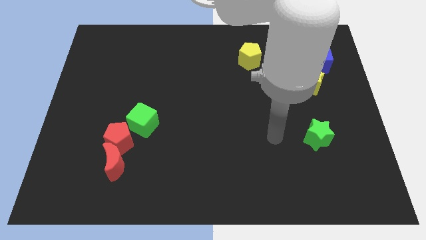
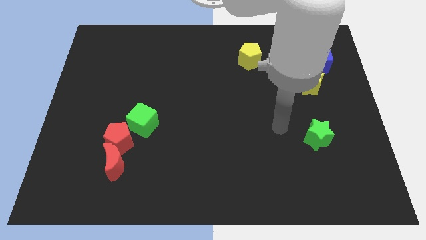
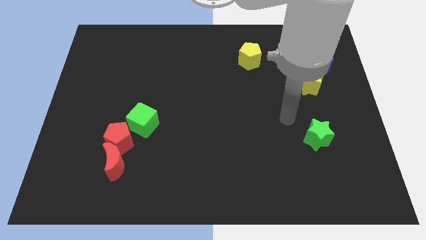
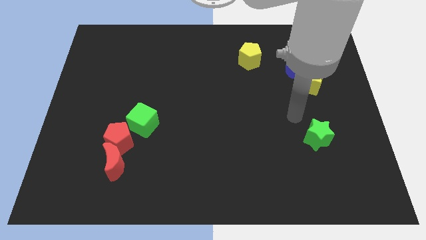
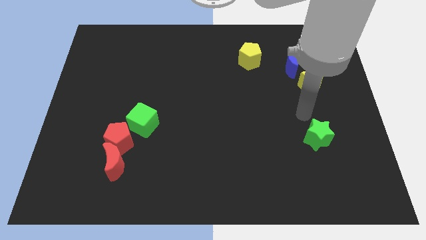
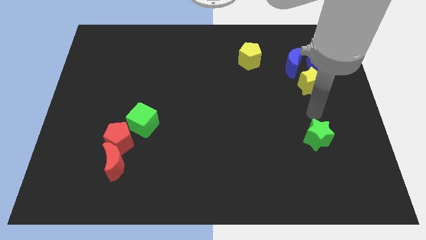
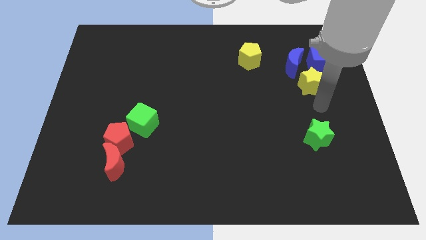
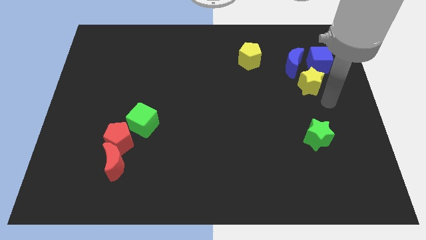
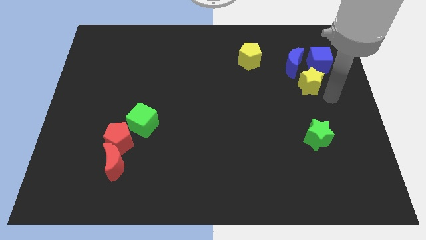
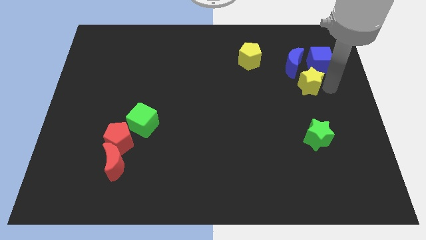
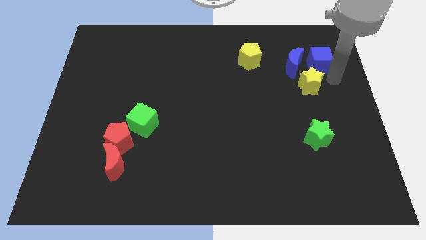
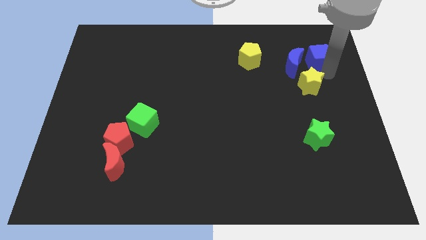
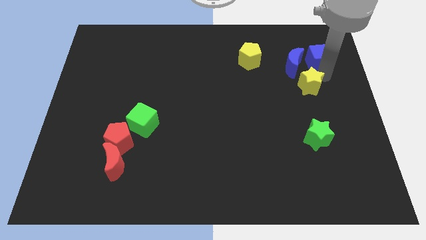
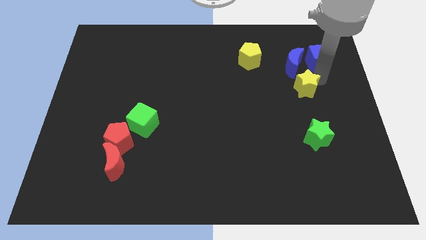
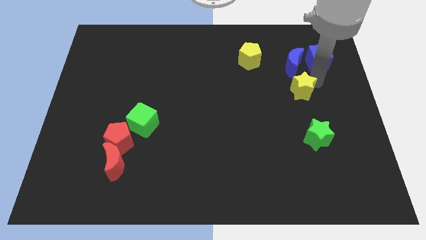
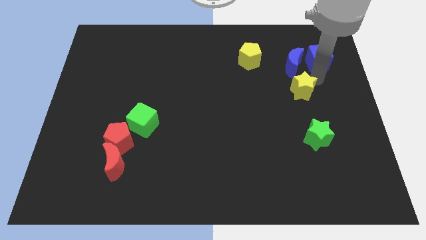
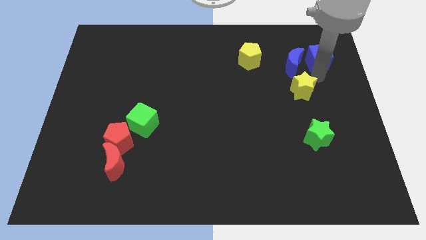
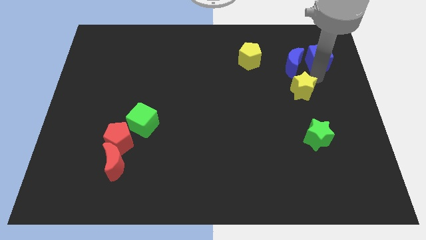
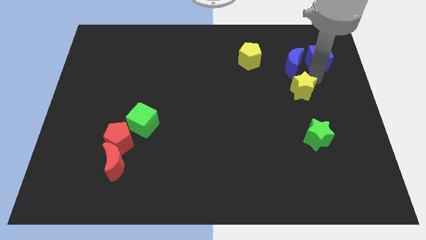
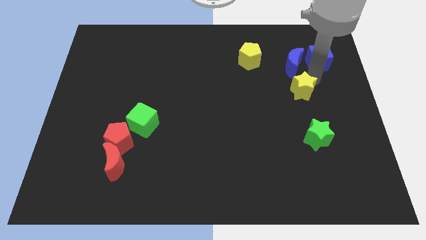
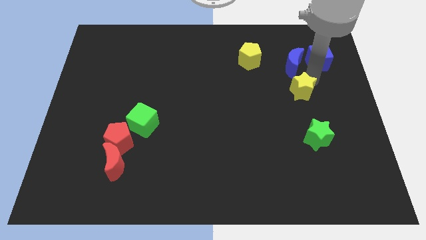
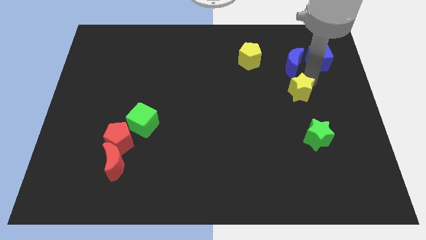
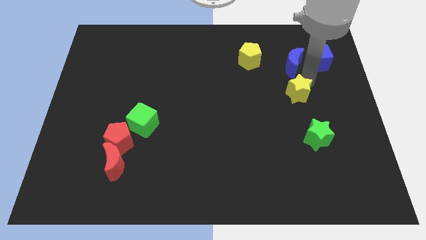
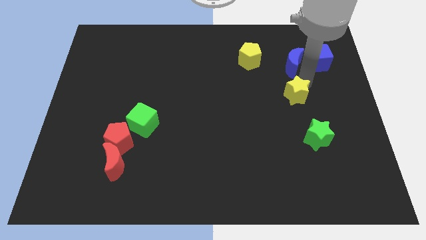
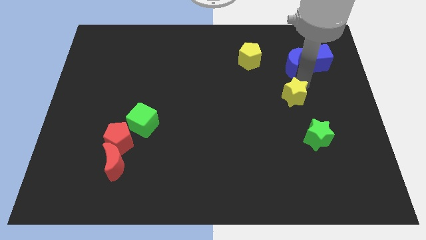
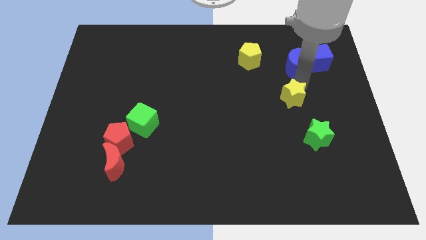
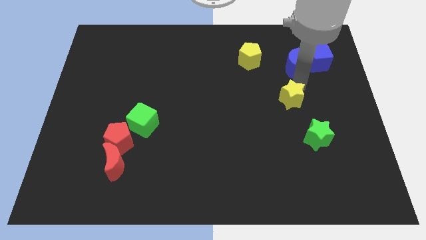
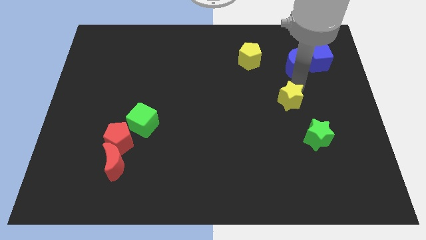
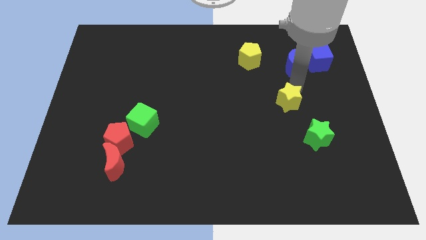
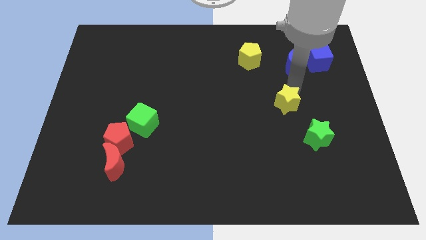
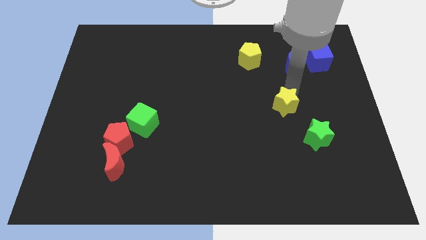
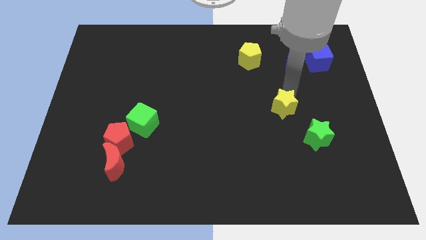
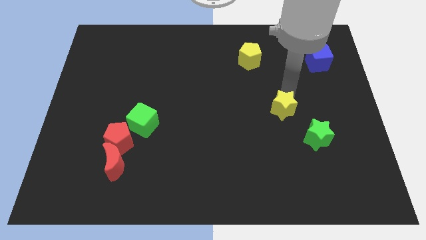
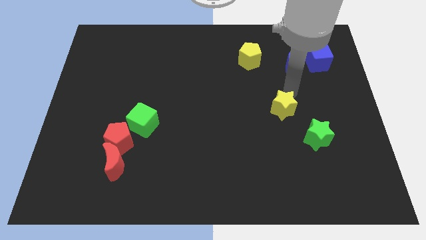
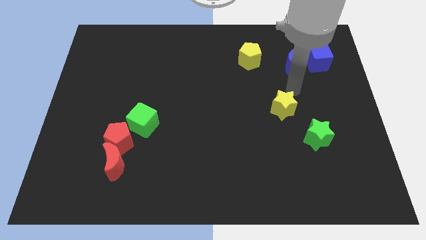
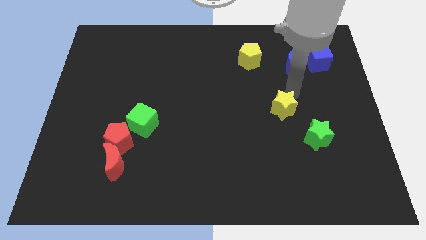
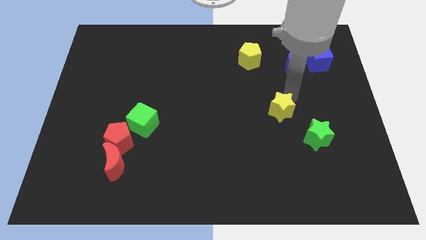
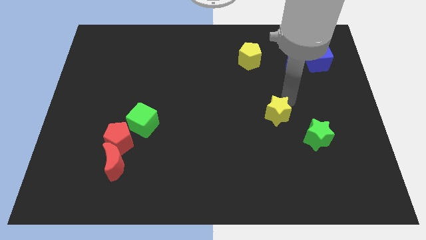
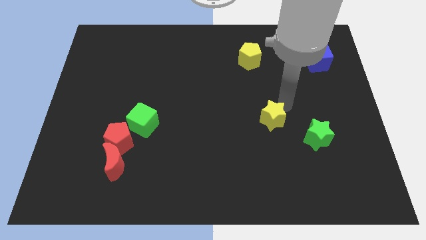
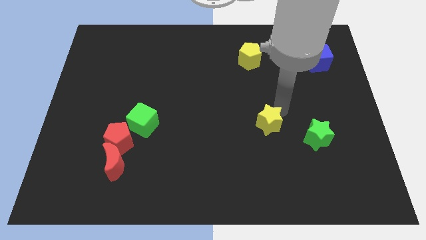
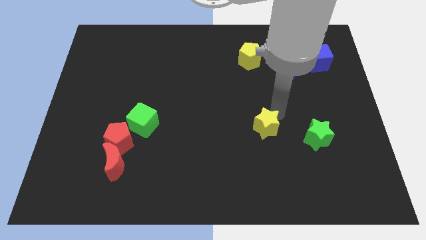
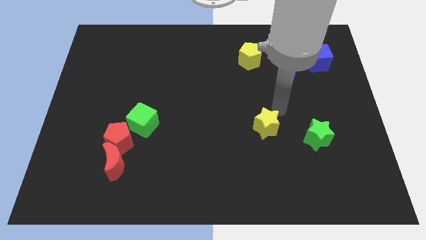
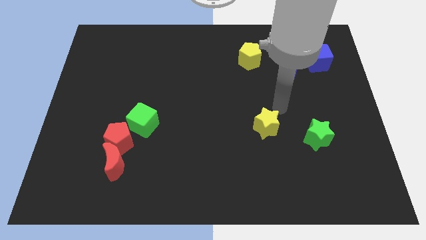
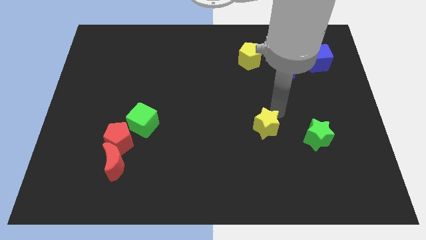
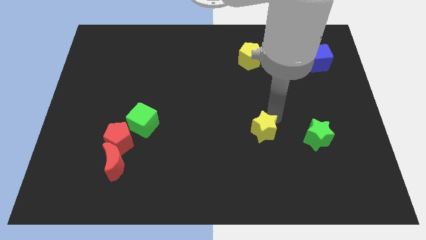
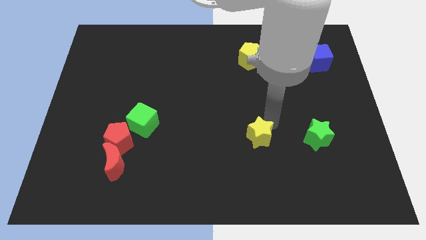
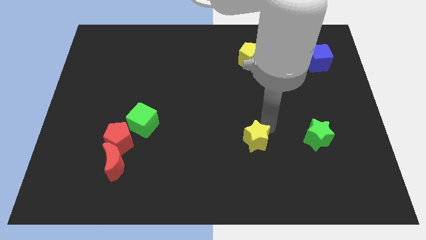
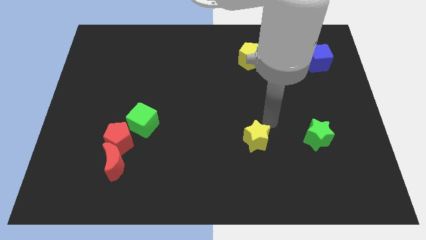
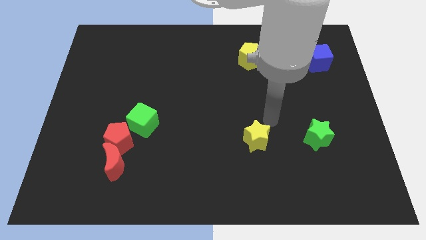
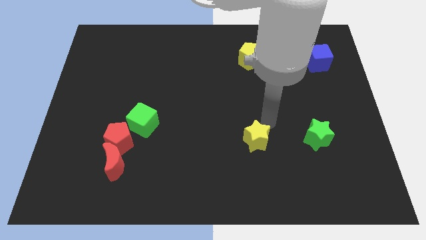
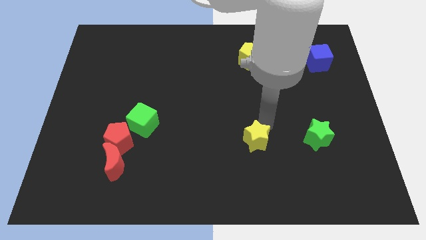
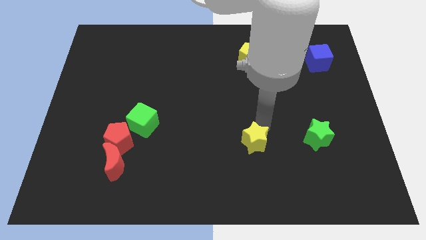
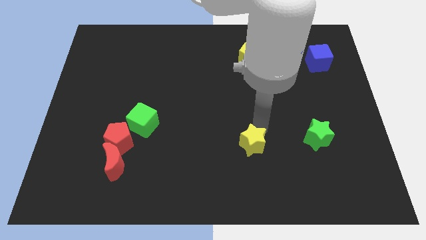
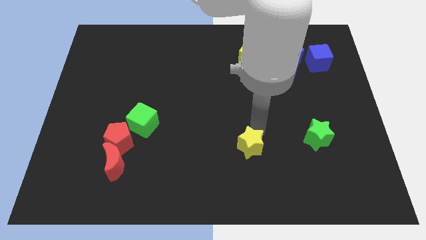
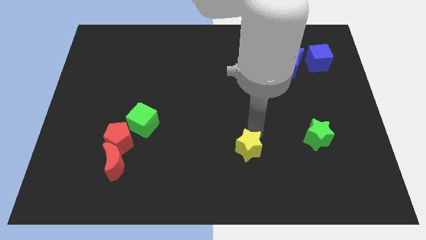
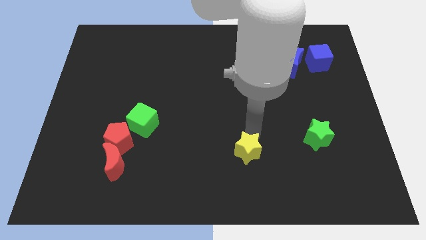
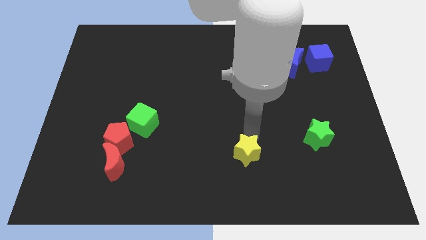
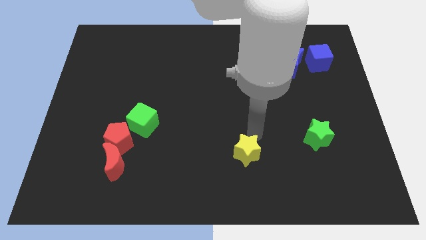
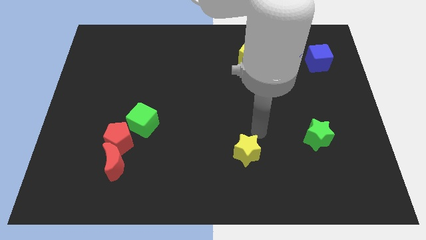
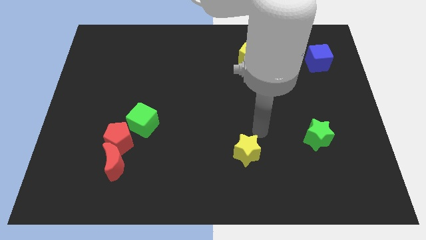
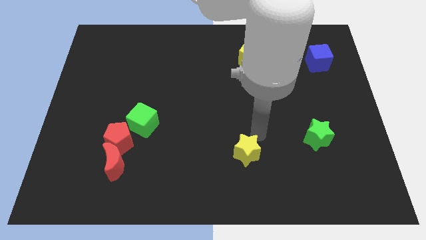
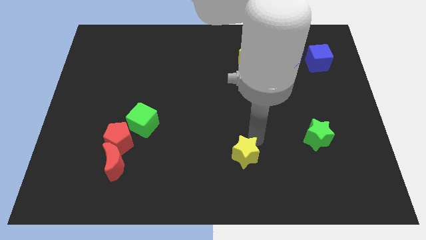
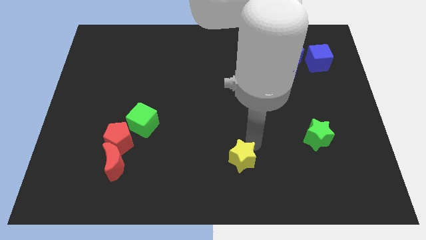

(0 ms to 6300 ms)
slide the yellow star to the bottom

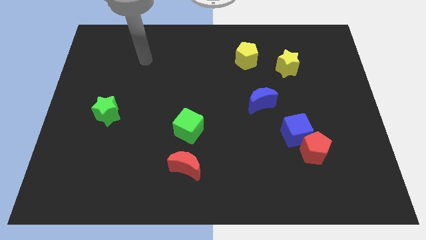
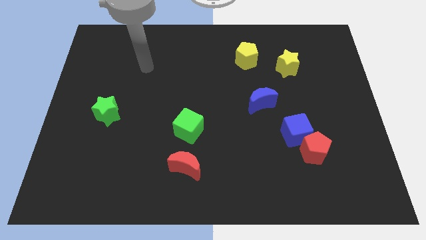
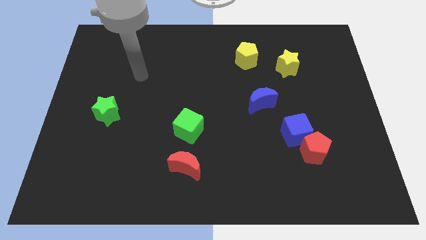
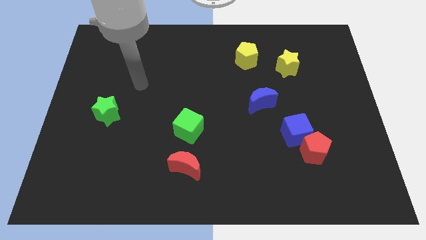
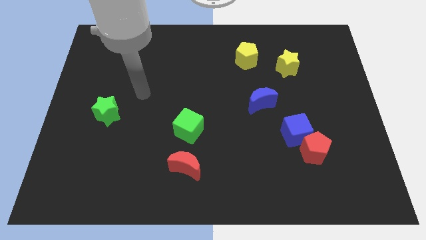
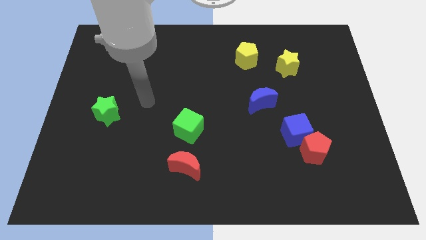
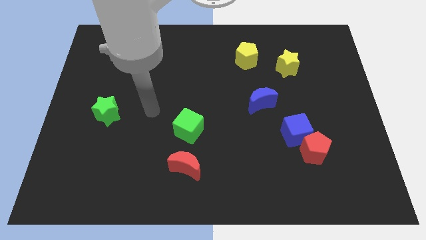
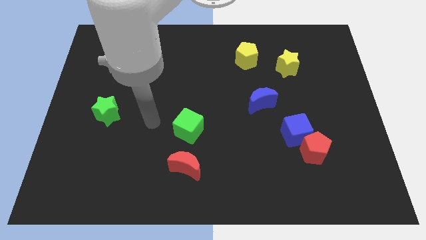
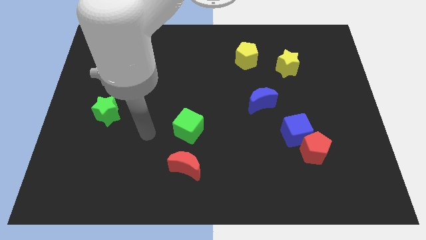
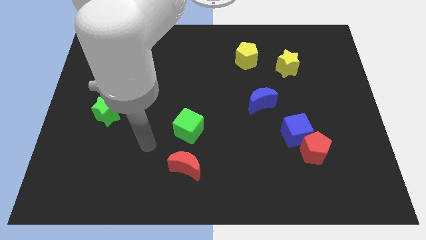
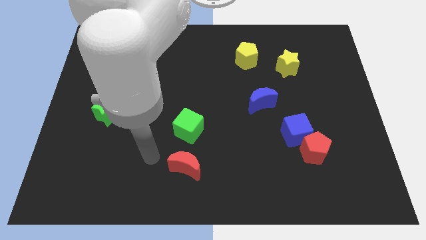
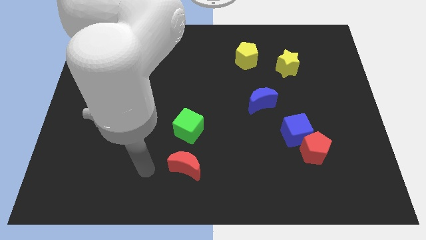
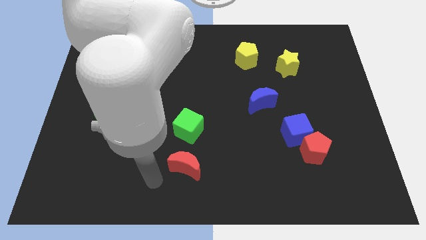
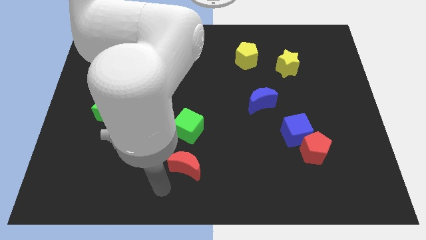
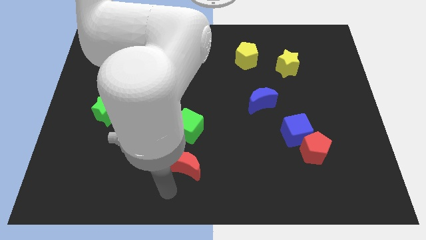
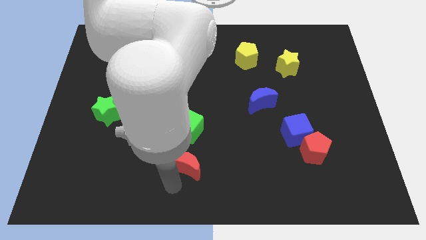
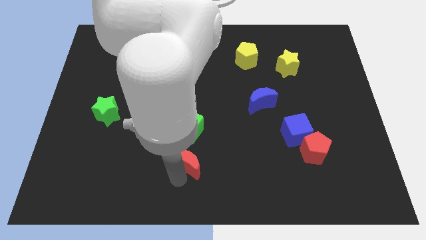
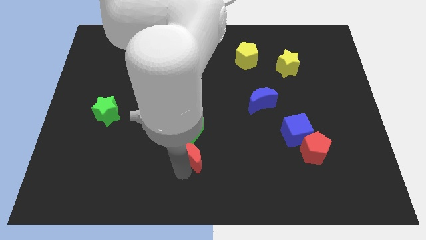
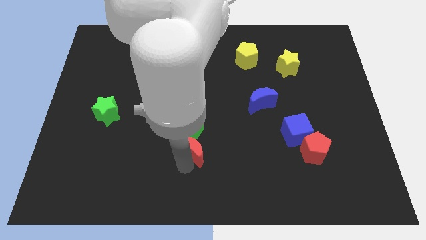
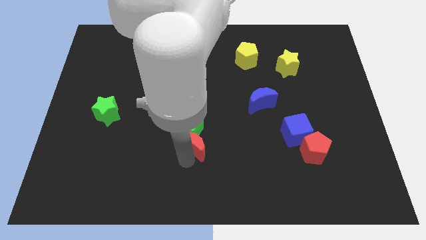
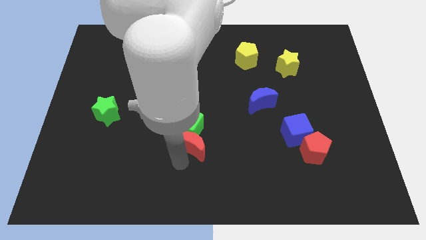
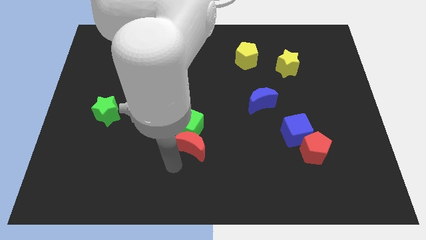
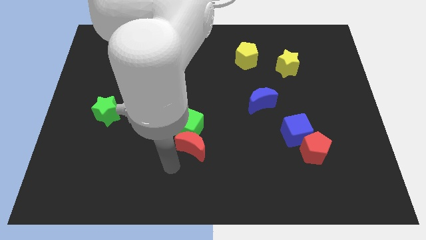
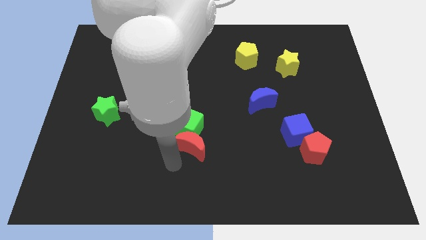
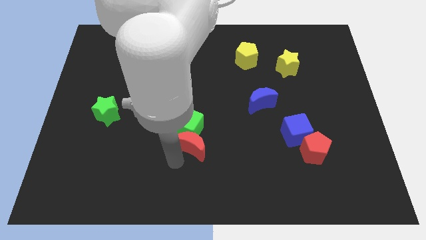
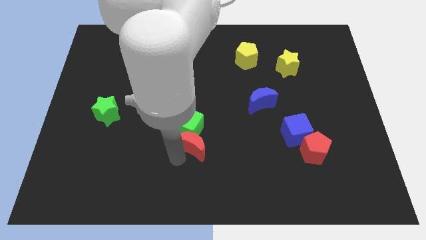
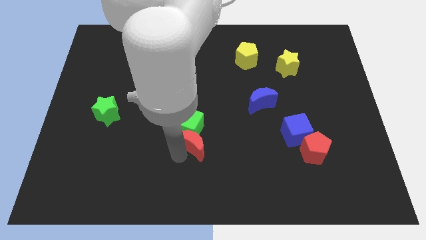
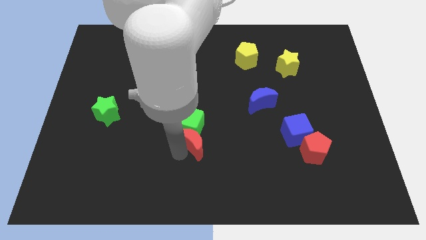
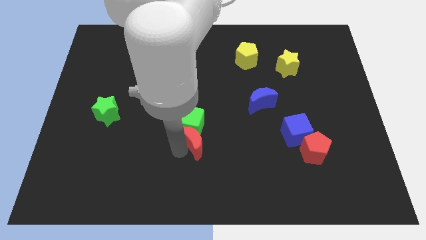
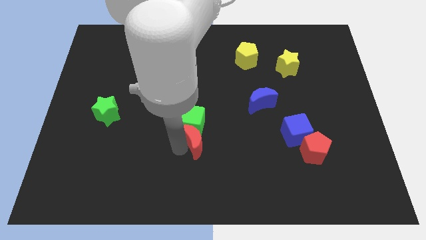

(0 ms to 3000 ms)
put the red moon to the middle of the board
